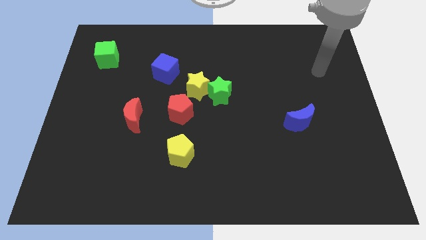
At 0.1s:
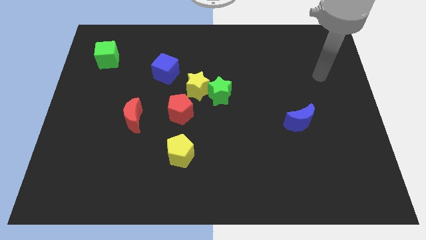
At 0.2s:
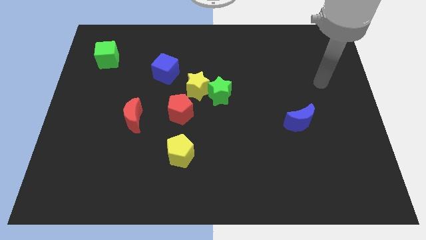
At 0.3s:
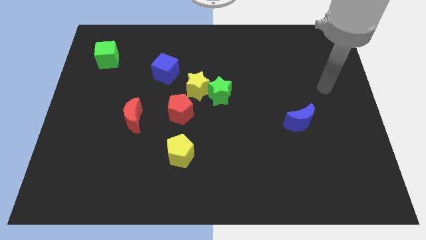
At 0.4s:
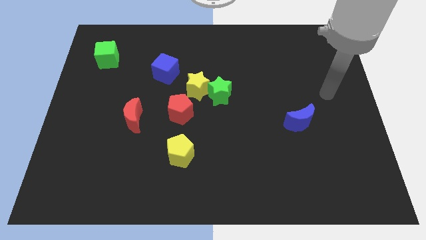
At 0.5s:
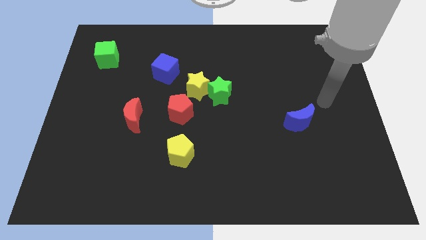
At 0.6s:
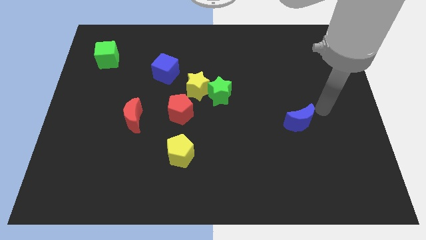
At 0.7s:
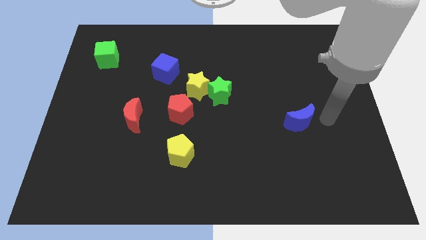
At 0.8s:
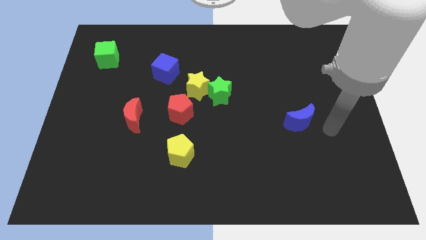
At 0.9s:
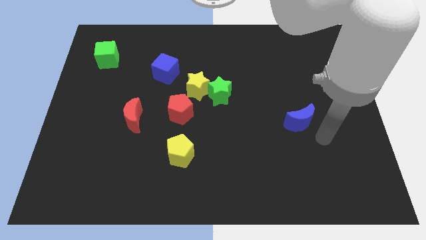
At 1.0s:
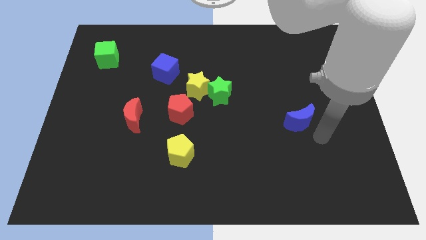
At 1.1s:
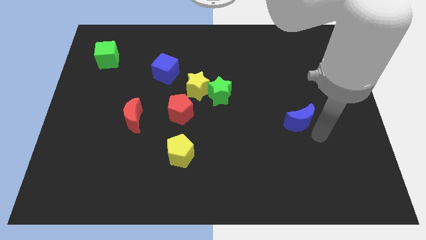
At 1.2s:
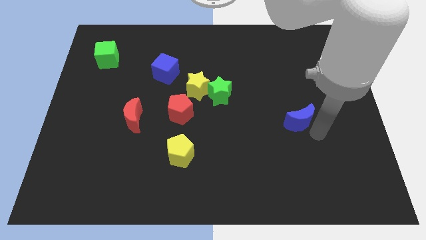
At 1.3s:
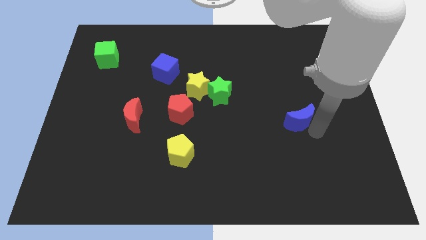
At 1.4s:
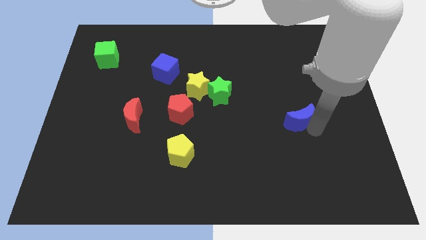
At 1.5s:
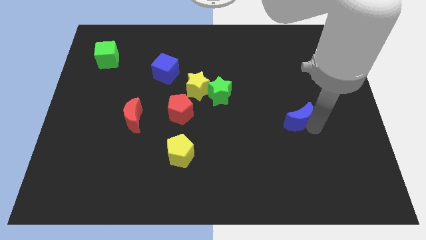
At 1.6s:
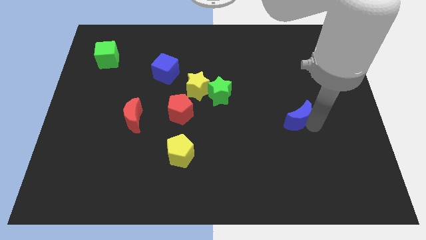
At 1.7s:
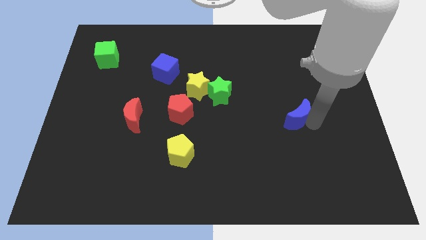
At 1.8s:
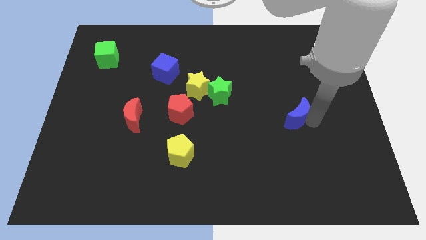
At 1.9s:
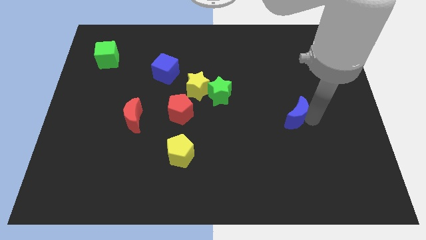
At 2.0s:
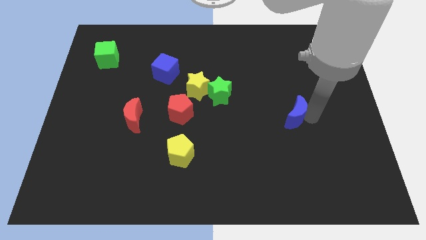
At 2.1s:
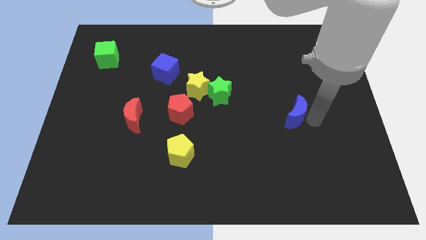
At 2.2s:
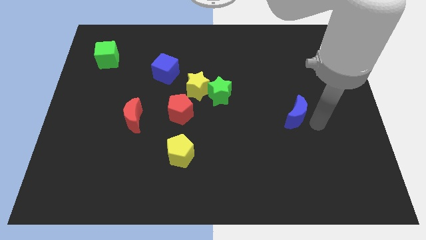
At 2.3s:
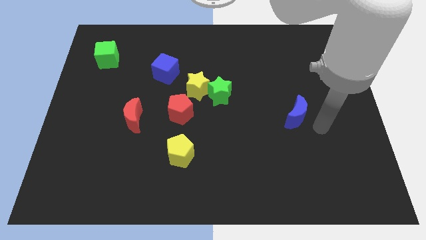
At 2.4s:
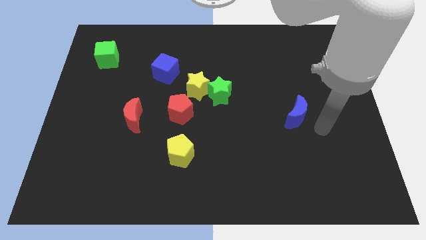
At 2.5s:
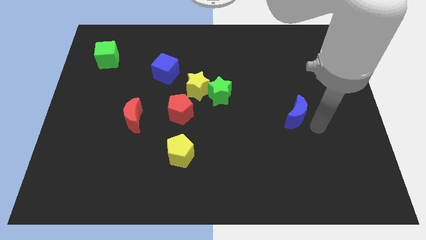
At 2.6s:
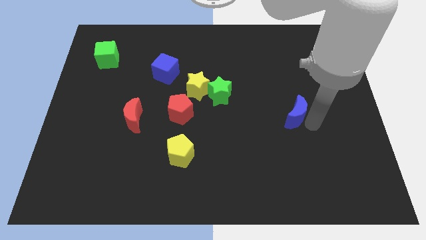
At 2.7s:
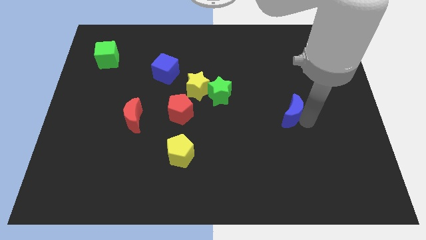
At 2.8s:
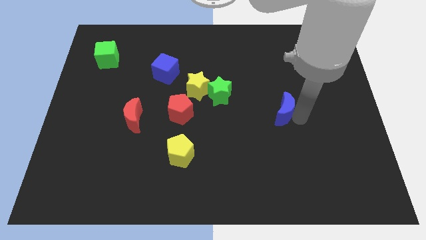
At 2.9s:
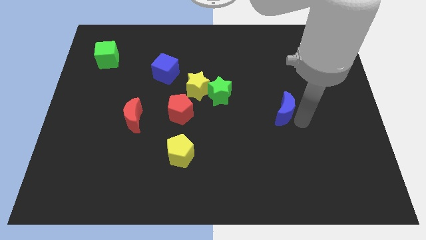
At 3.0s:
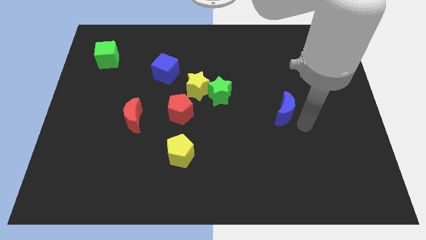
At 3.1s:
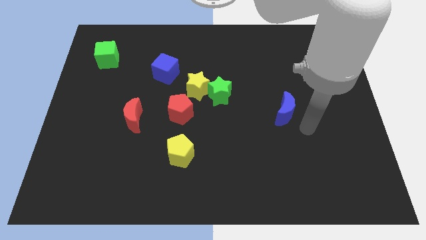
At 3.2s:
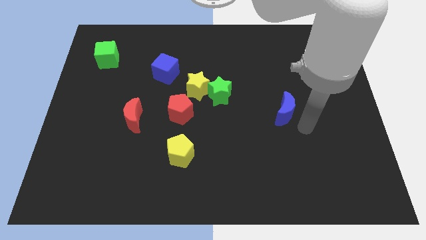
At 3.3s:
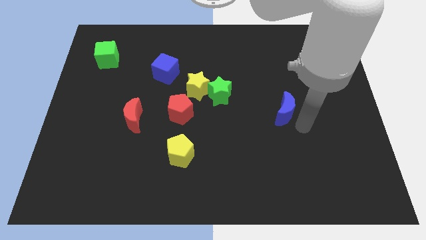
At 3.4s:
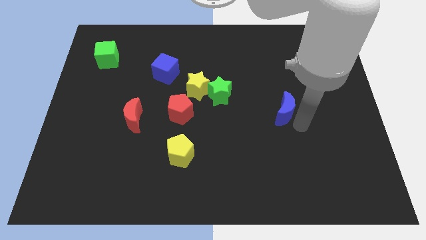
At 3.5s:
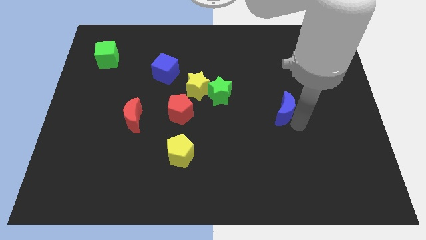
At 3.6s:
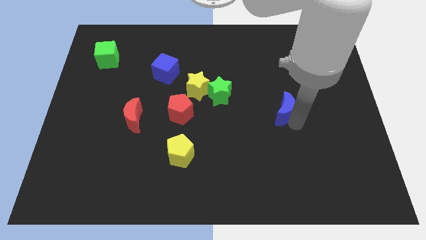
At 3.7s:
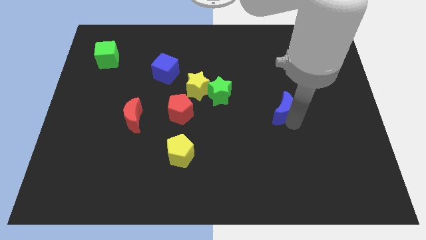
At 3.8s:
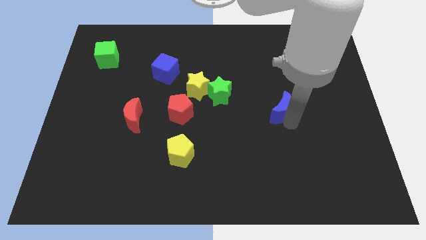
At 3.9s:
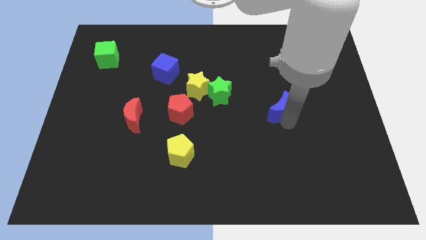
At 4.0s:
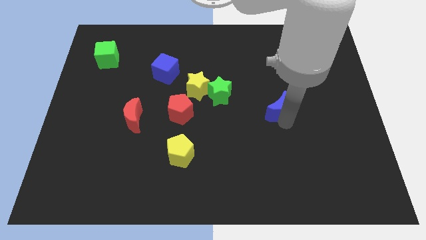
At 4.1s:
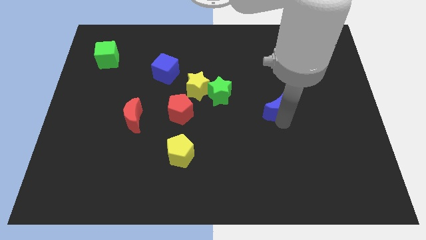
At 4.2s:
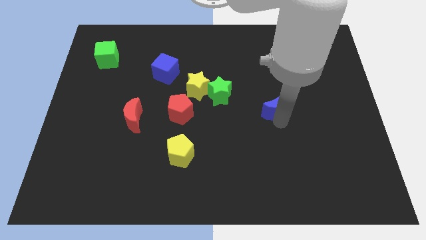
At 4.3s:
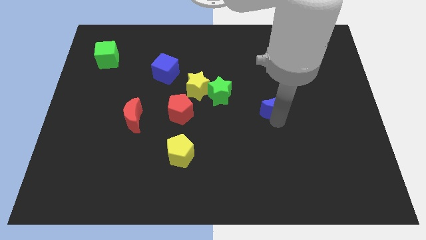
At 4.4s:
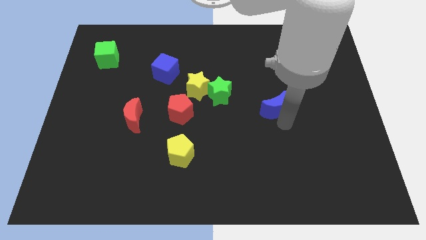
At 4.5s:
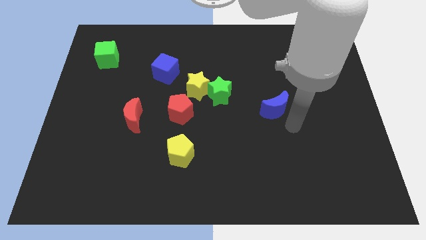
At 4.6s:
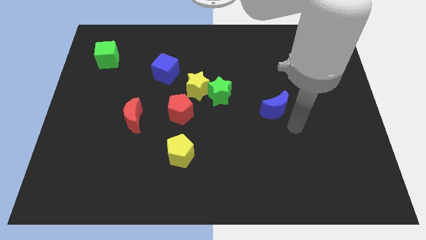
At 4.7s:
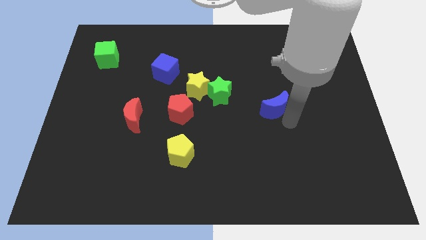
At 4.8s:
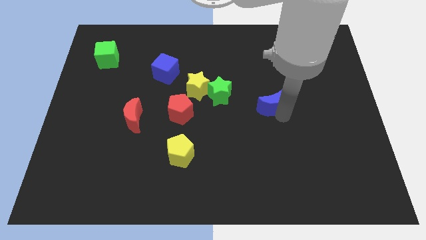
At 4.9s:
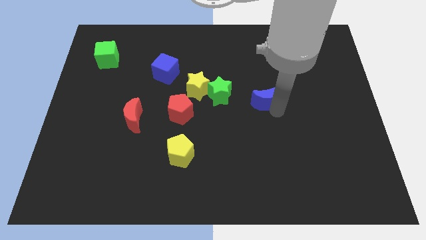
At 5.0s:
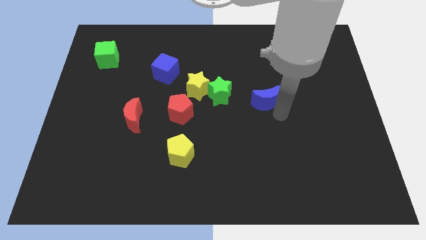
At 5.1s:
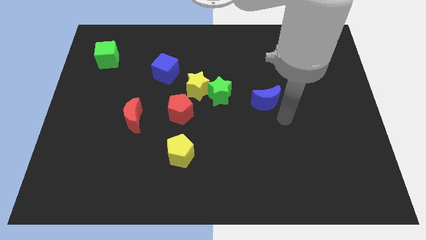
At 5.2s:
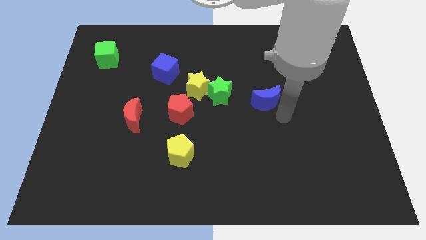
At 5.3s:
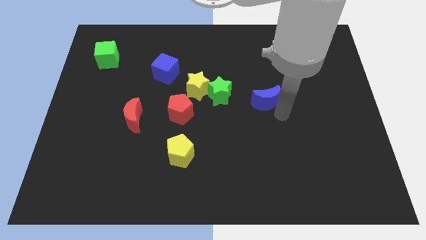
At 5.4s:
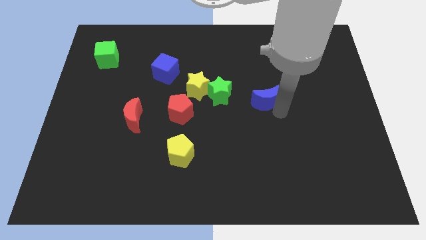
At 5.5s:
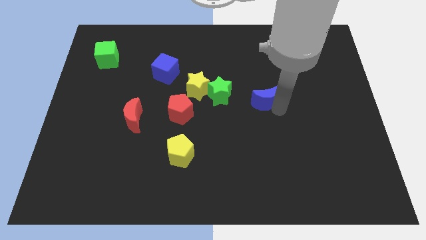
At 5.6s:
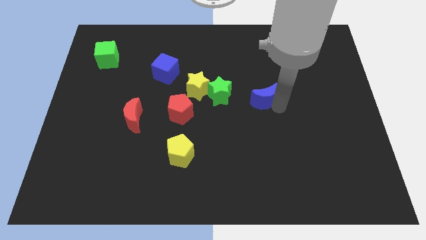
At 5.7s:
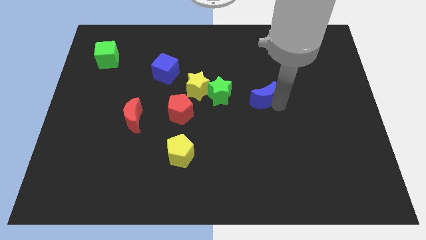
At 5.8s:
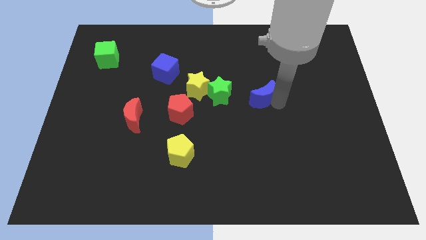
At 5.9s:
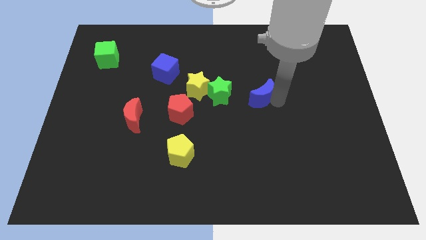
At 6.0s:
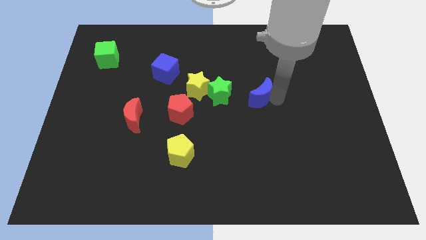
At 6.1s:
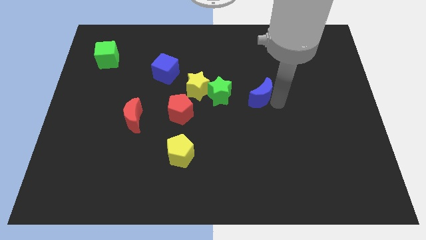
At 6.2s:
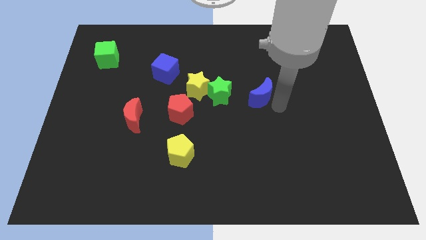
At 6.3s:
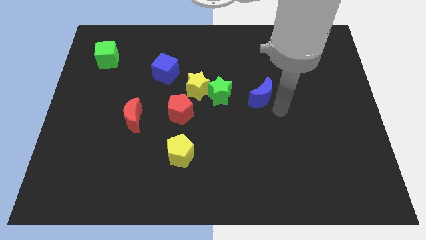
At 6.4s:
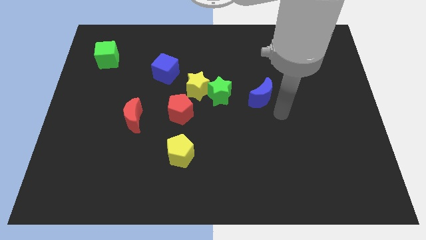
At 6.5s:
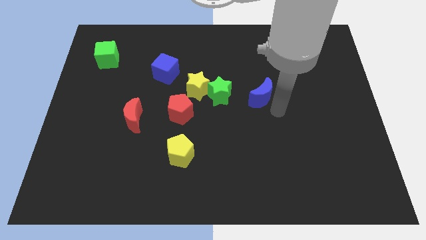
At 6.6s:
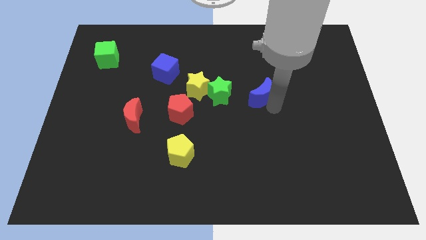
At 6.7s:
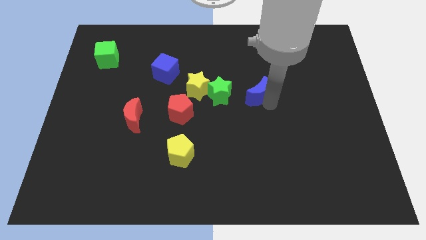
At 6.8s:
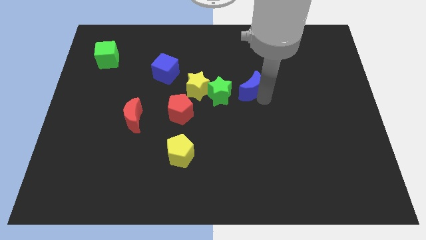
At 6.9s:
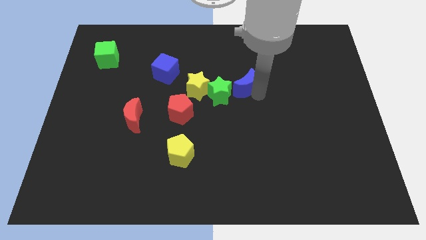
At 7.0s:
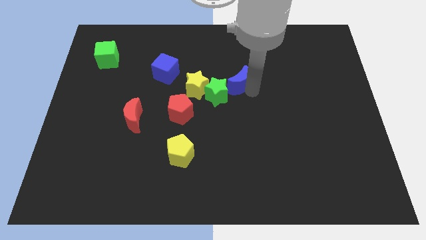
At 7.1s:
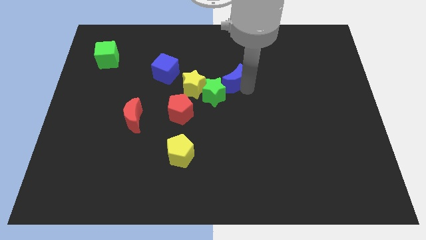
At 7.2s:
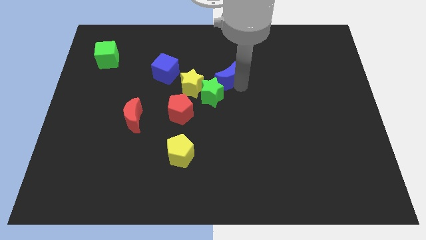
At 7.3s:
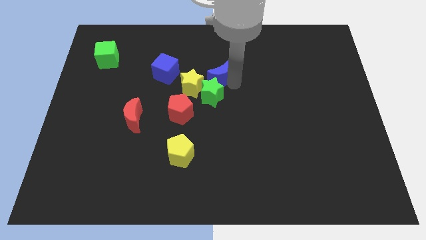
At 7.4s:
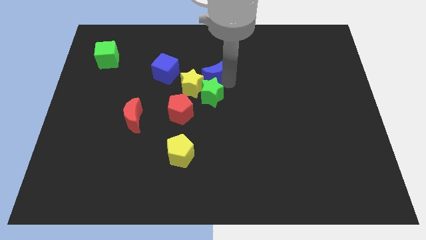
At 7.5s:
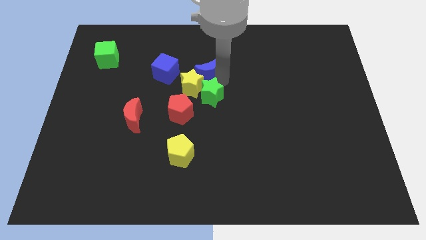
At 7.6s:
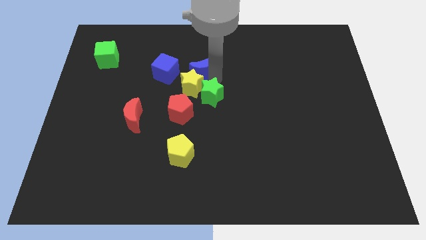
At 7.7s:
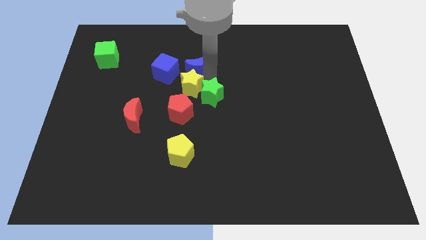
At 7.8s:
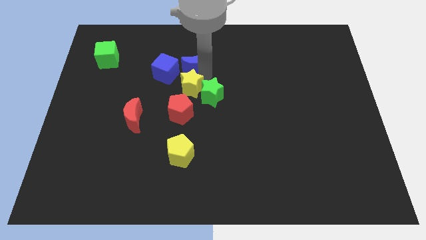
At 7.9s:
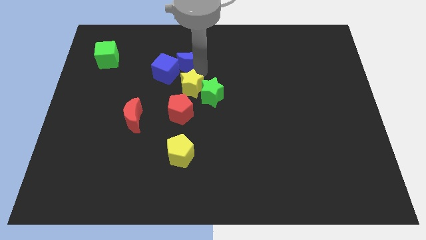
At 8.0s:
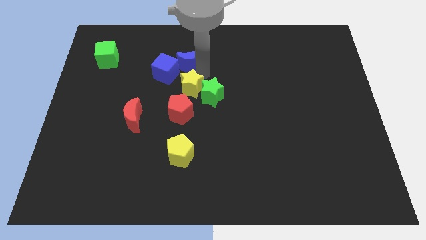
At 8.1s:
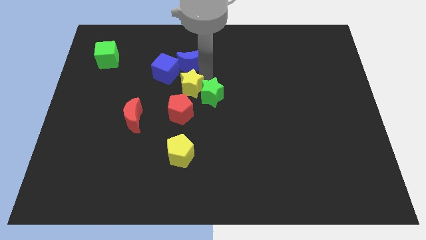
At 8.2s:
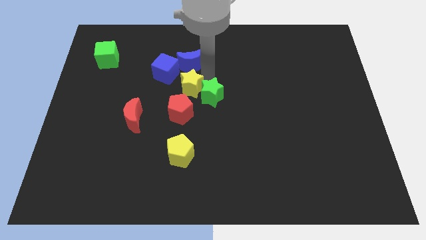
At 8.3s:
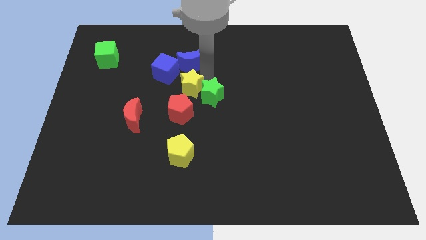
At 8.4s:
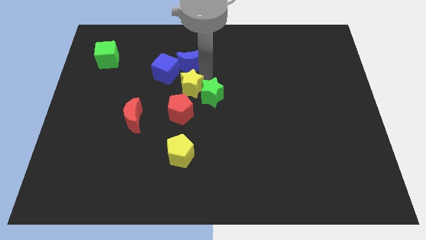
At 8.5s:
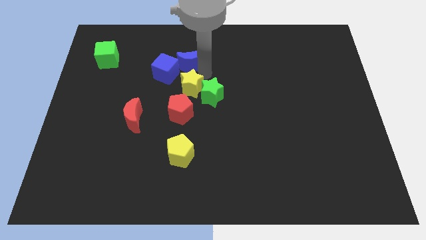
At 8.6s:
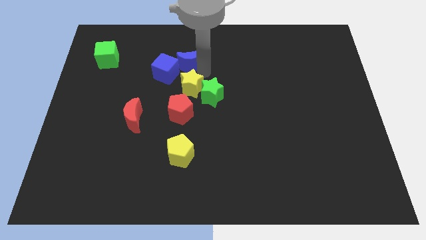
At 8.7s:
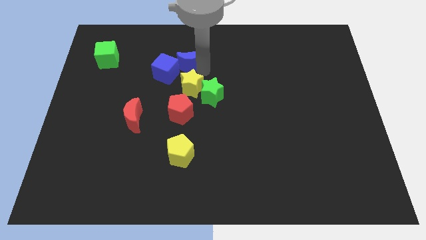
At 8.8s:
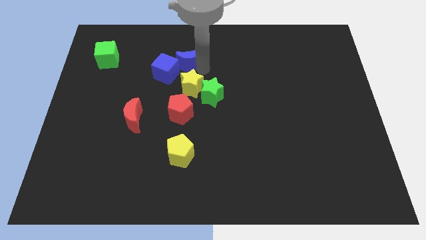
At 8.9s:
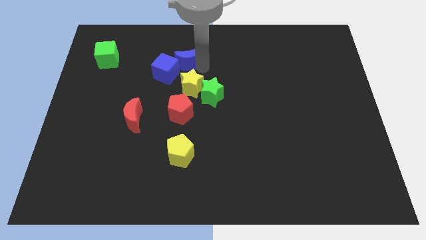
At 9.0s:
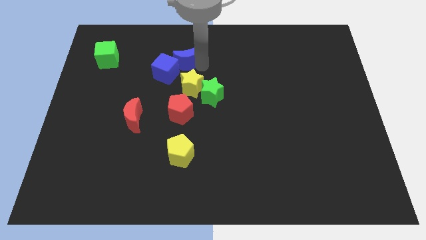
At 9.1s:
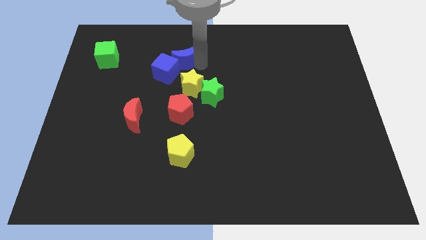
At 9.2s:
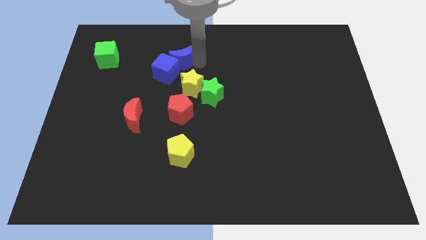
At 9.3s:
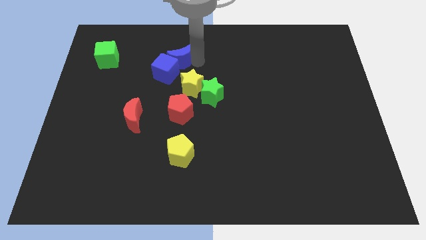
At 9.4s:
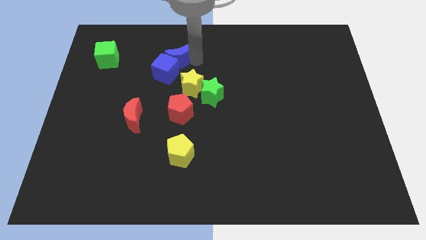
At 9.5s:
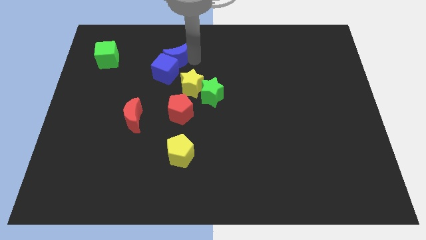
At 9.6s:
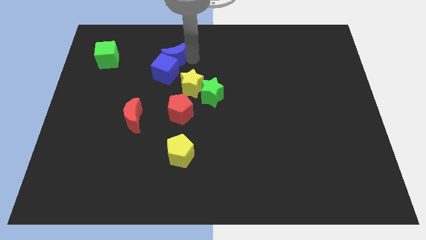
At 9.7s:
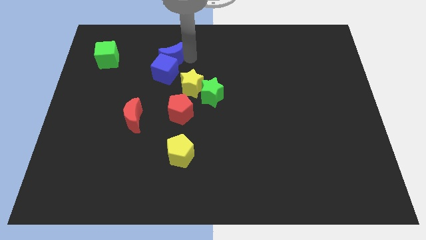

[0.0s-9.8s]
put the blue moon diagonally up and to the left of the blue cube
